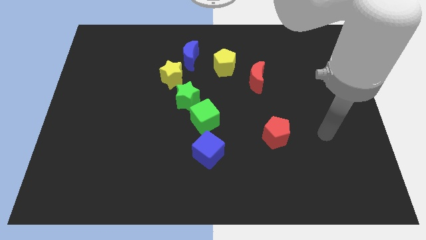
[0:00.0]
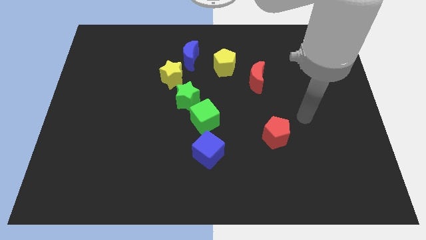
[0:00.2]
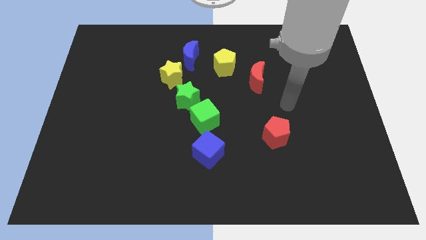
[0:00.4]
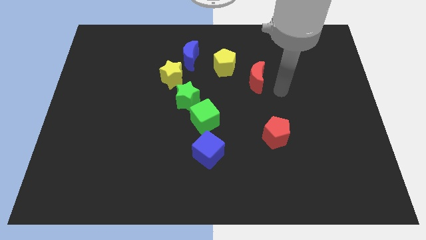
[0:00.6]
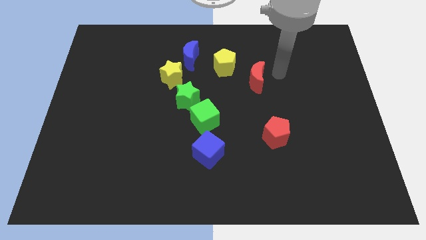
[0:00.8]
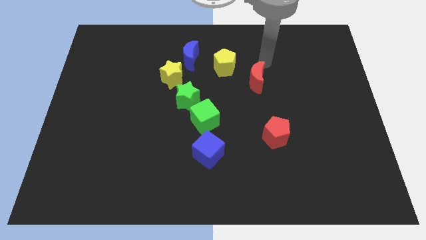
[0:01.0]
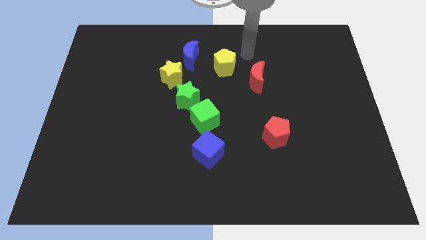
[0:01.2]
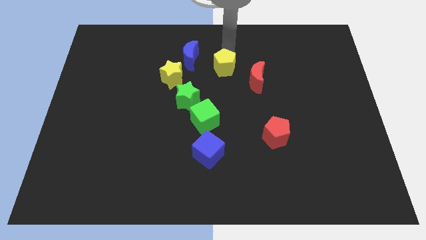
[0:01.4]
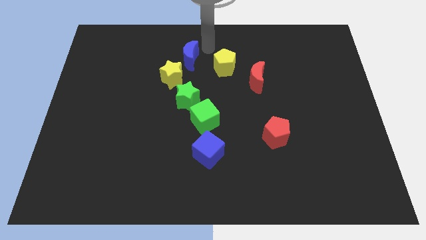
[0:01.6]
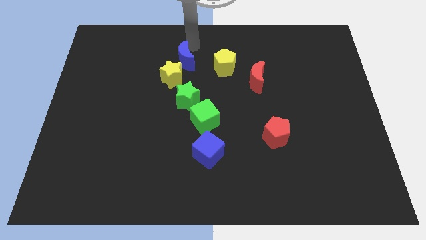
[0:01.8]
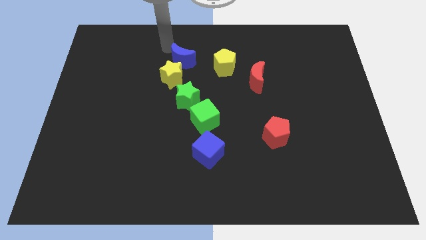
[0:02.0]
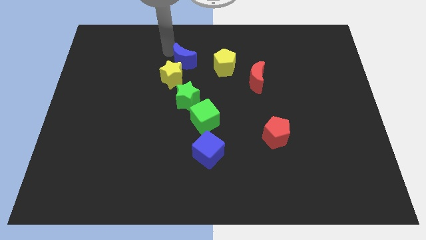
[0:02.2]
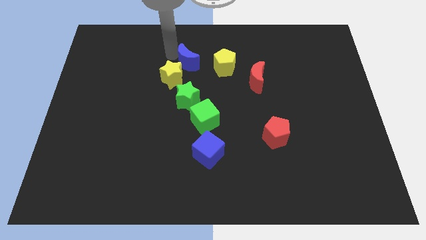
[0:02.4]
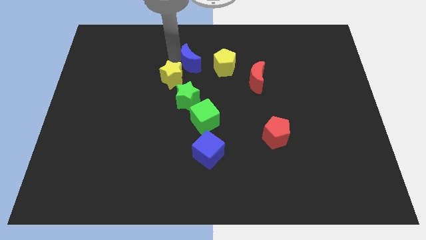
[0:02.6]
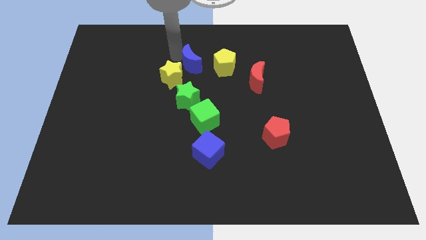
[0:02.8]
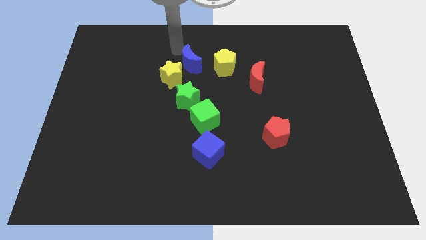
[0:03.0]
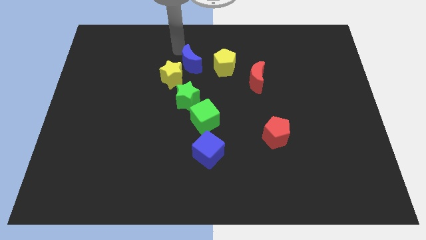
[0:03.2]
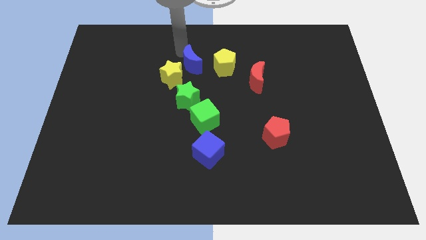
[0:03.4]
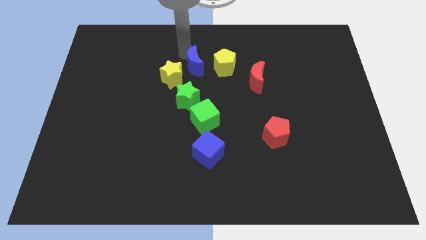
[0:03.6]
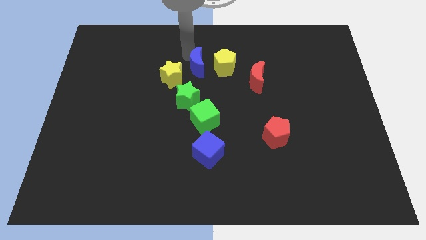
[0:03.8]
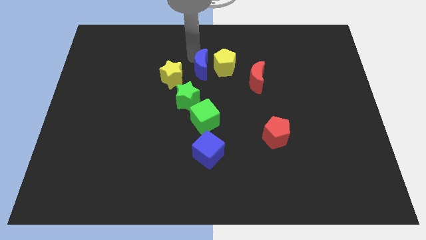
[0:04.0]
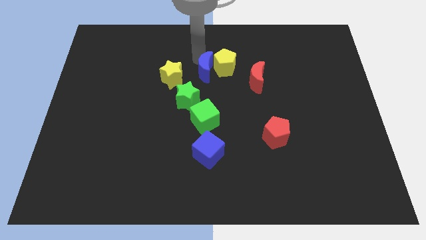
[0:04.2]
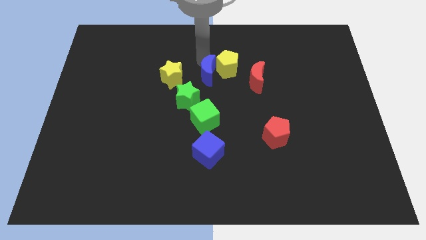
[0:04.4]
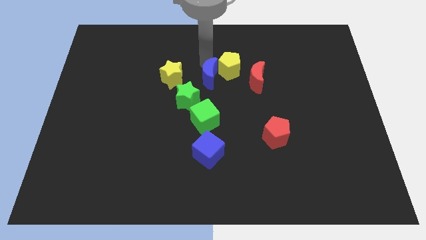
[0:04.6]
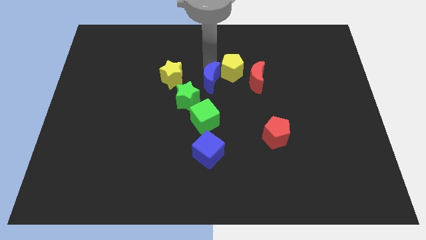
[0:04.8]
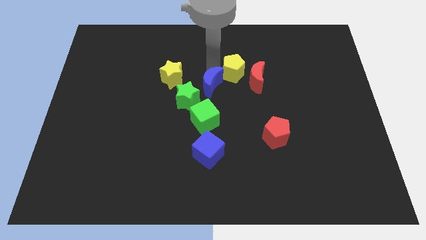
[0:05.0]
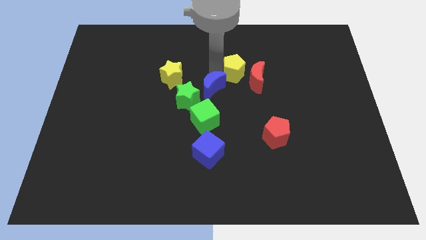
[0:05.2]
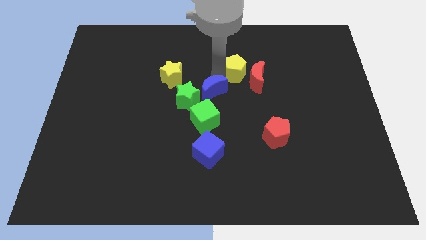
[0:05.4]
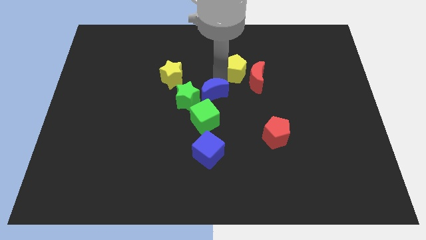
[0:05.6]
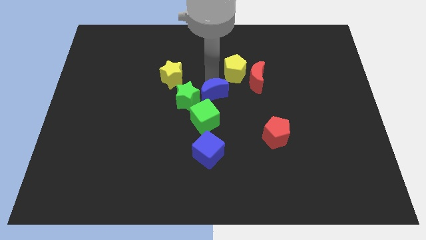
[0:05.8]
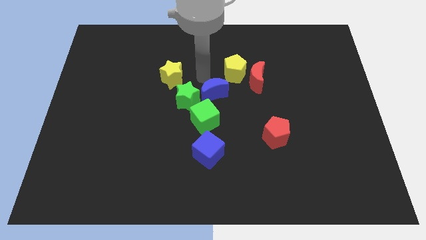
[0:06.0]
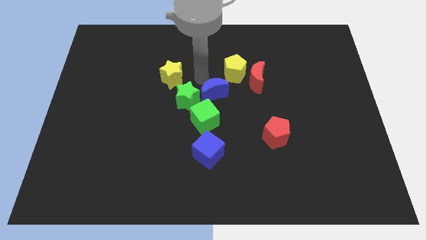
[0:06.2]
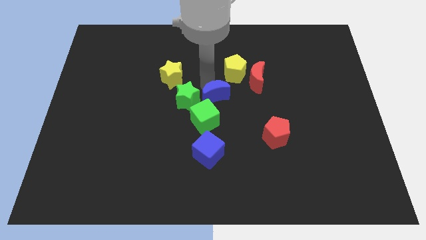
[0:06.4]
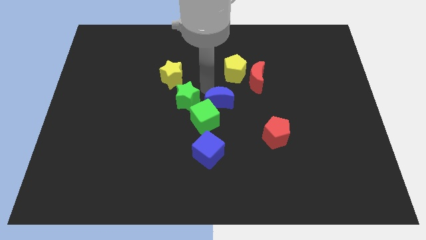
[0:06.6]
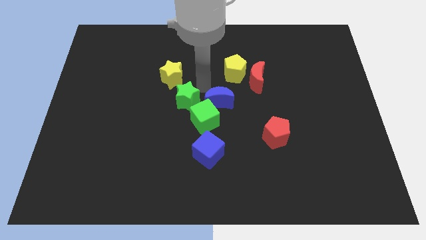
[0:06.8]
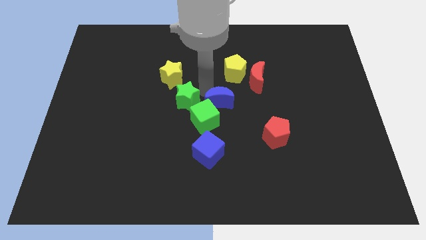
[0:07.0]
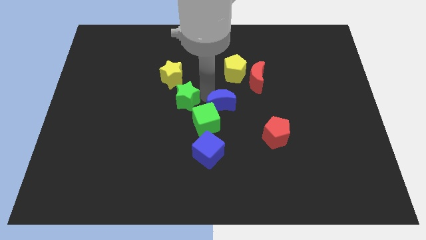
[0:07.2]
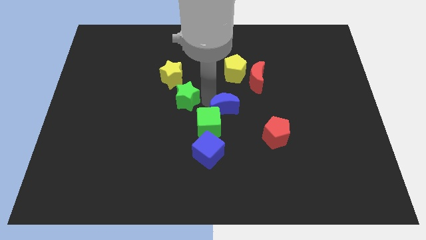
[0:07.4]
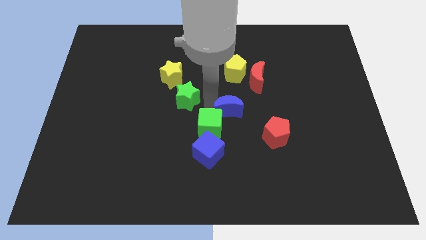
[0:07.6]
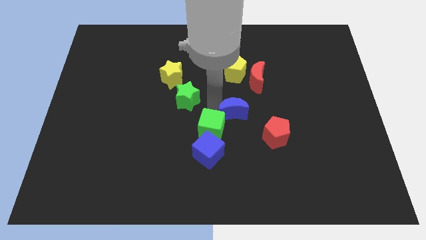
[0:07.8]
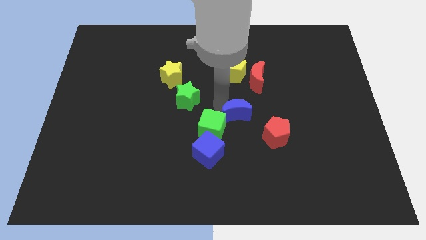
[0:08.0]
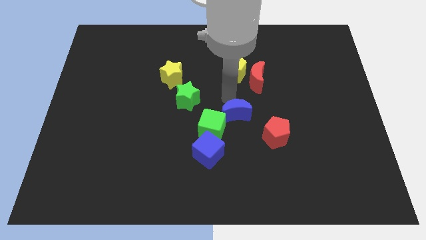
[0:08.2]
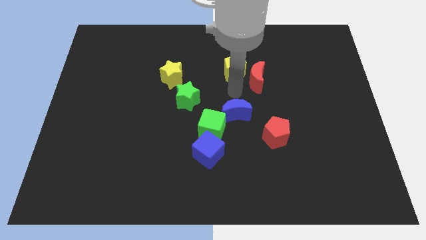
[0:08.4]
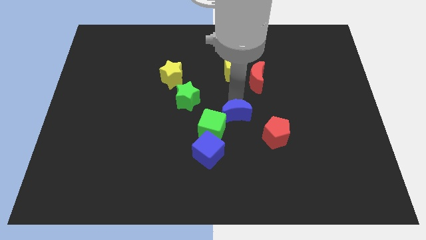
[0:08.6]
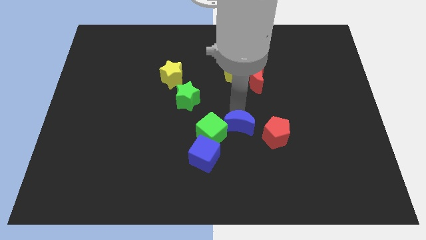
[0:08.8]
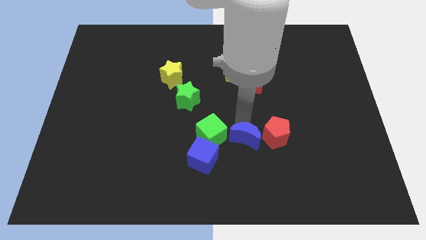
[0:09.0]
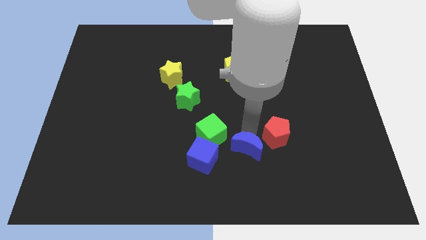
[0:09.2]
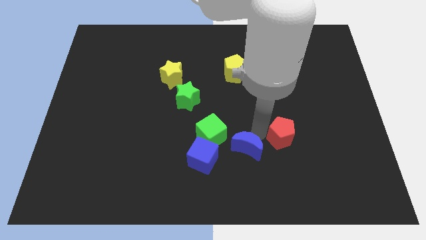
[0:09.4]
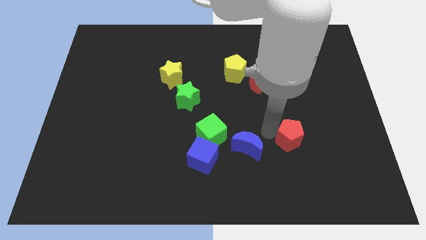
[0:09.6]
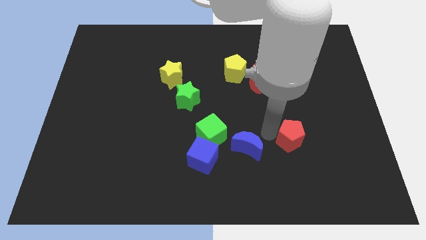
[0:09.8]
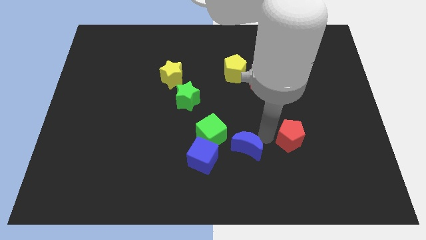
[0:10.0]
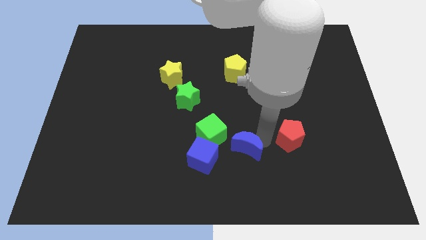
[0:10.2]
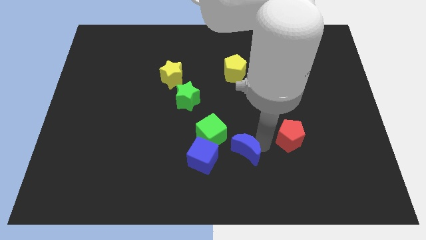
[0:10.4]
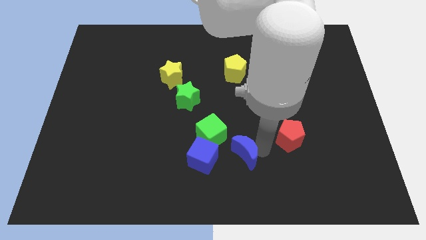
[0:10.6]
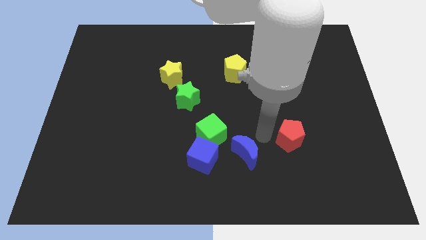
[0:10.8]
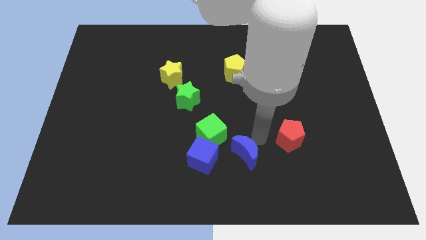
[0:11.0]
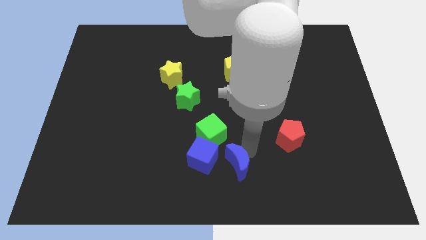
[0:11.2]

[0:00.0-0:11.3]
slide the blue moon to the bottom side

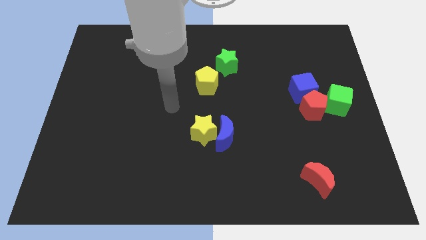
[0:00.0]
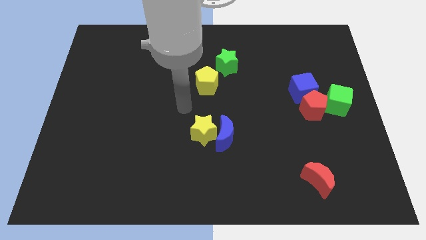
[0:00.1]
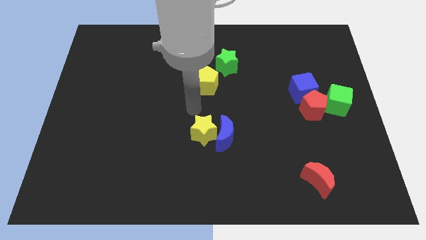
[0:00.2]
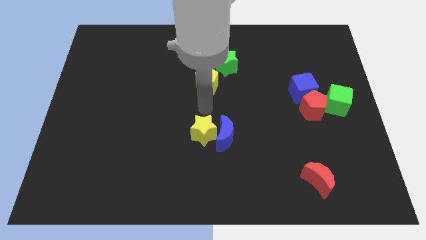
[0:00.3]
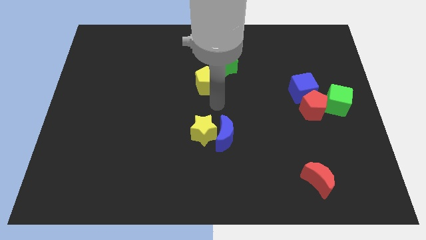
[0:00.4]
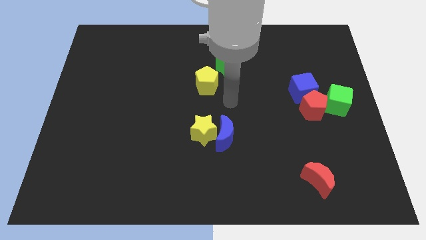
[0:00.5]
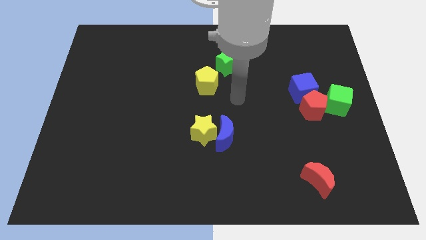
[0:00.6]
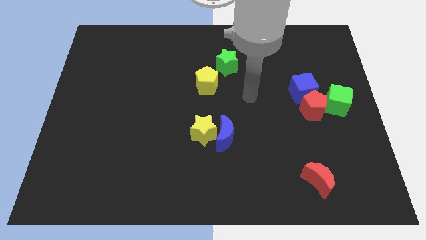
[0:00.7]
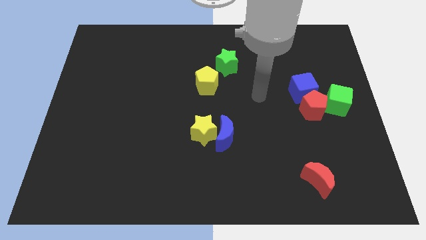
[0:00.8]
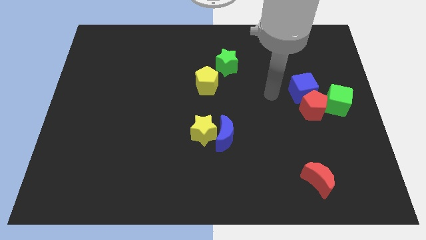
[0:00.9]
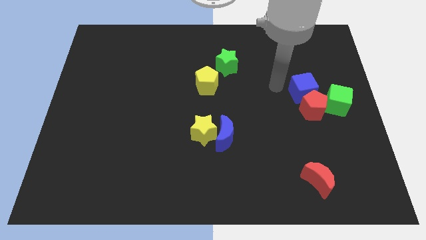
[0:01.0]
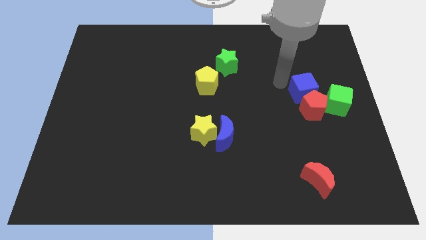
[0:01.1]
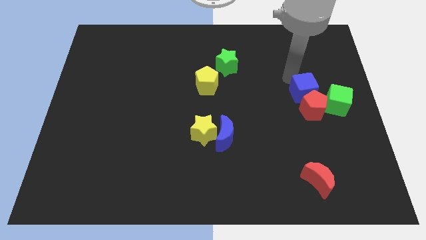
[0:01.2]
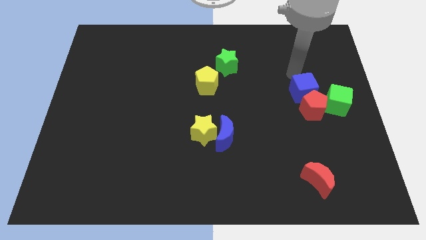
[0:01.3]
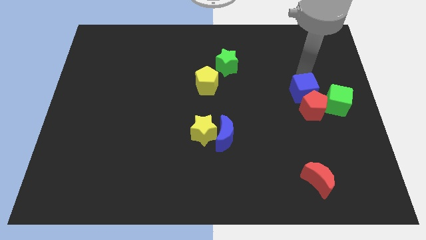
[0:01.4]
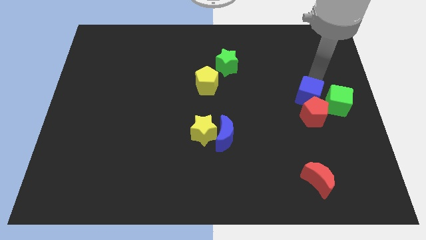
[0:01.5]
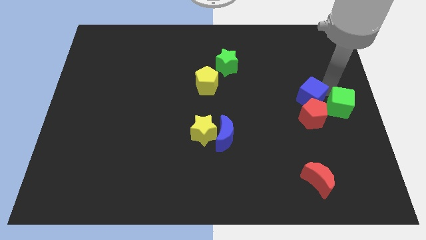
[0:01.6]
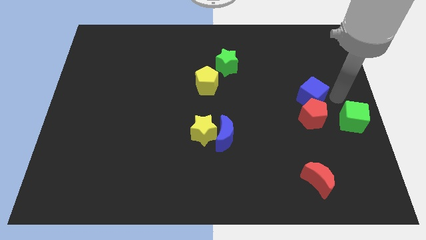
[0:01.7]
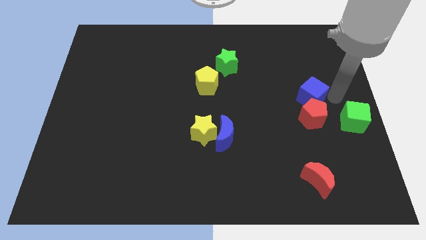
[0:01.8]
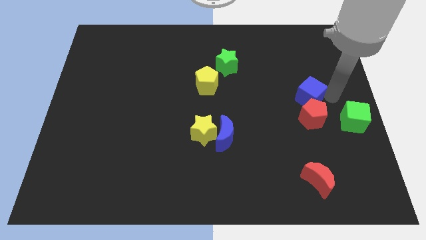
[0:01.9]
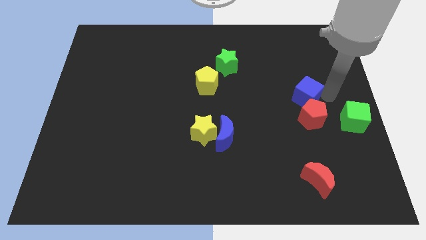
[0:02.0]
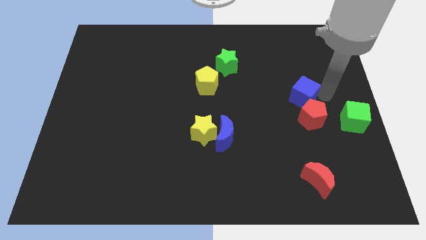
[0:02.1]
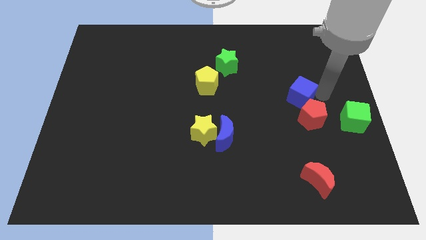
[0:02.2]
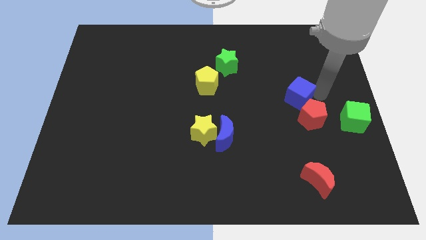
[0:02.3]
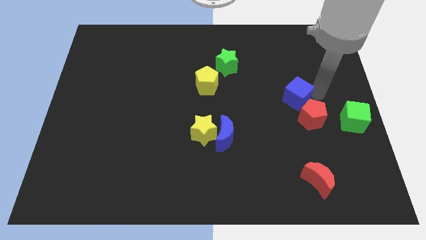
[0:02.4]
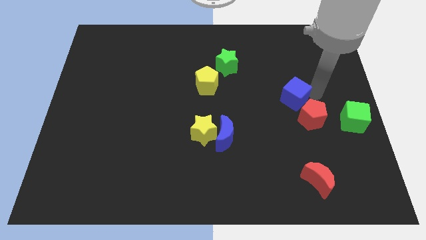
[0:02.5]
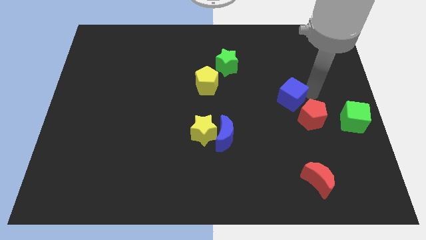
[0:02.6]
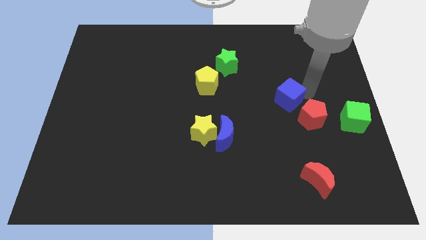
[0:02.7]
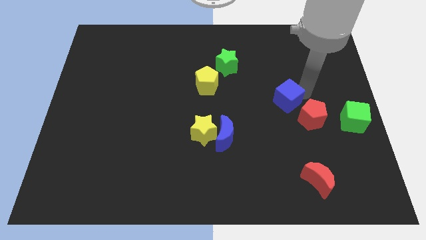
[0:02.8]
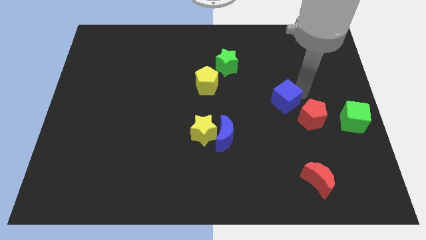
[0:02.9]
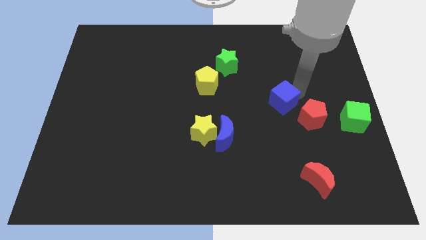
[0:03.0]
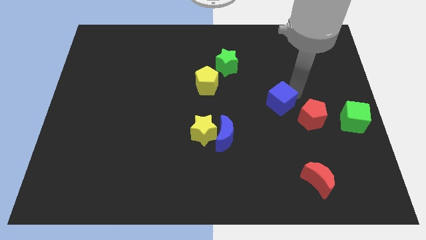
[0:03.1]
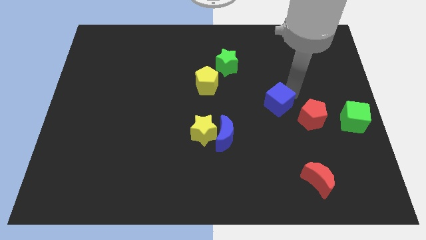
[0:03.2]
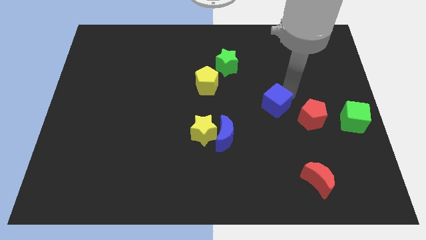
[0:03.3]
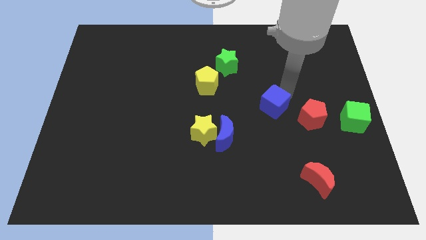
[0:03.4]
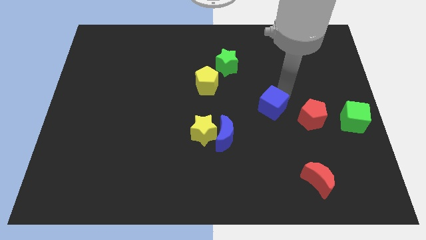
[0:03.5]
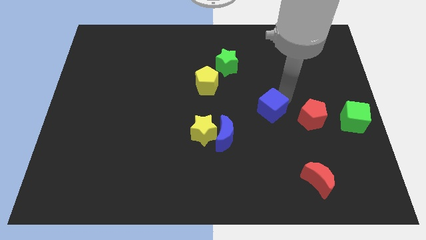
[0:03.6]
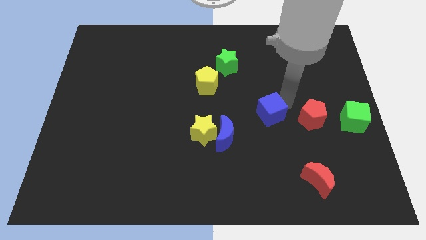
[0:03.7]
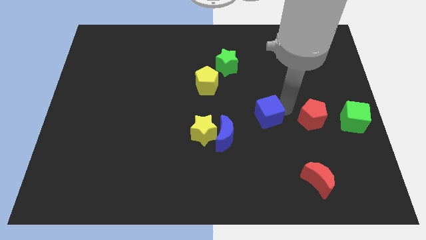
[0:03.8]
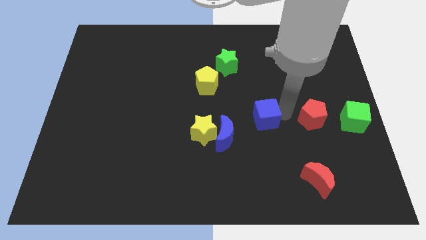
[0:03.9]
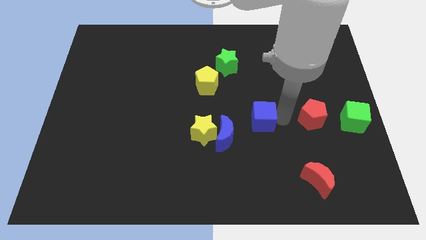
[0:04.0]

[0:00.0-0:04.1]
push the blue cube to the center
